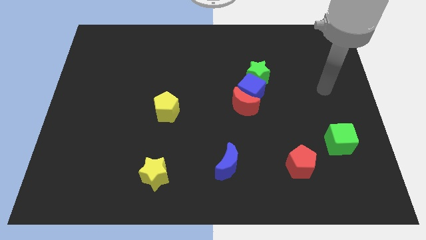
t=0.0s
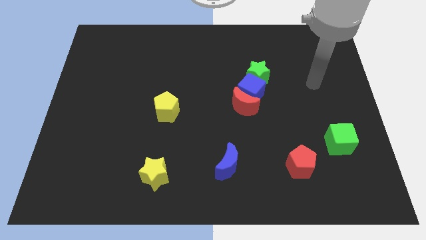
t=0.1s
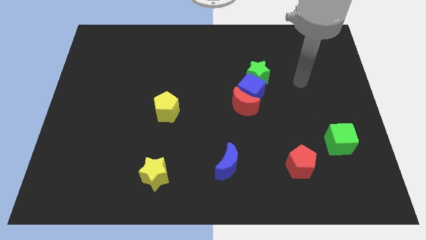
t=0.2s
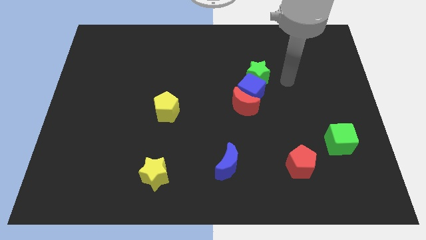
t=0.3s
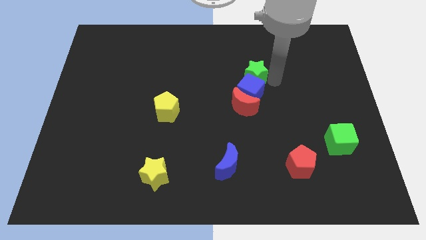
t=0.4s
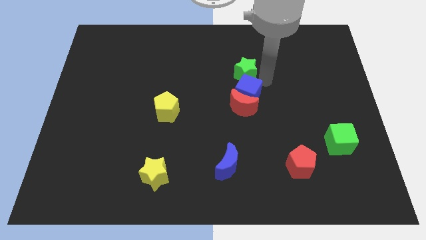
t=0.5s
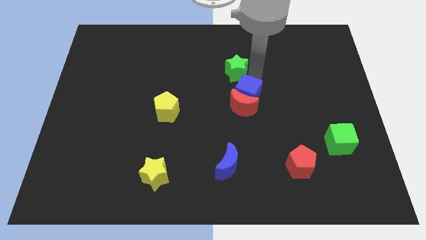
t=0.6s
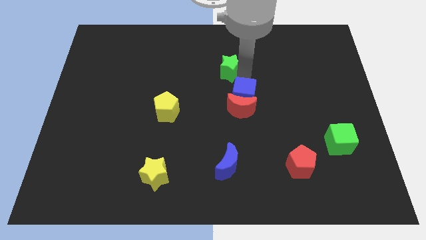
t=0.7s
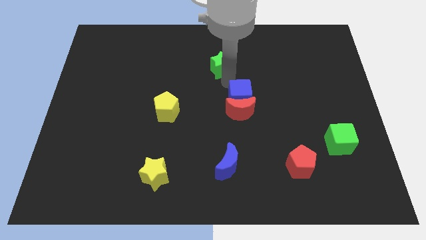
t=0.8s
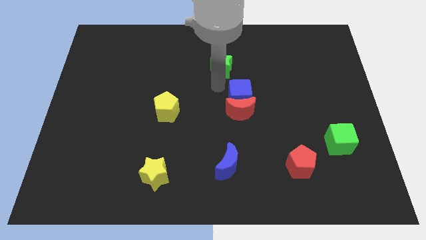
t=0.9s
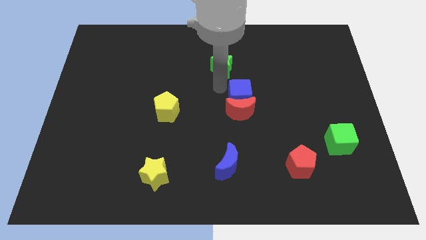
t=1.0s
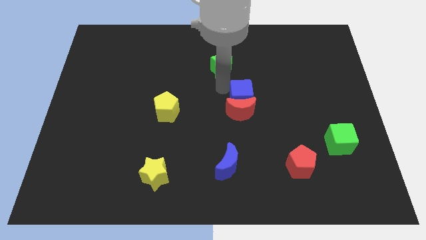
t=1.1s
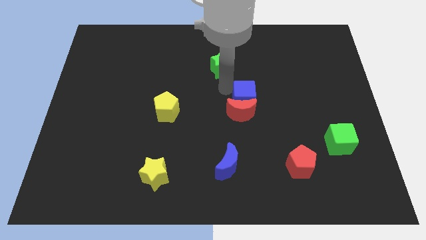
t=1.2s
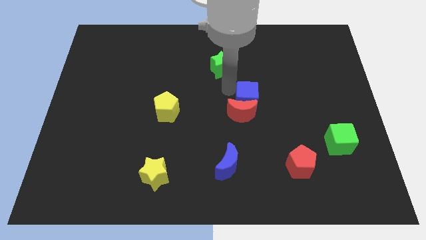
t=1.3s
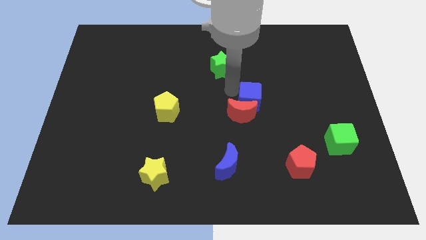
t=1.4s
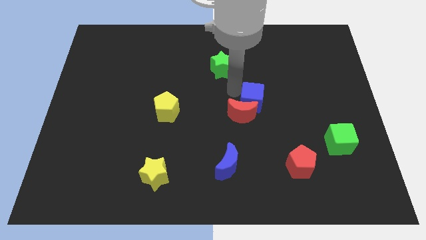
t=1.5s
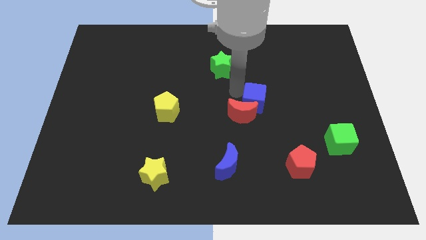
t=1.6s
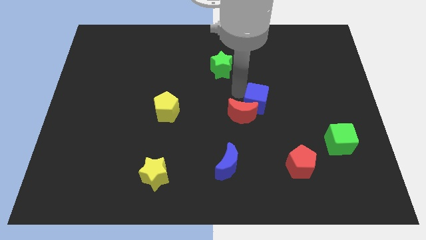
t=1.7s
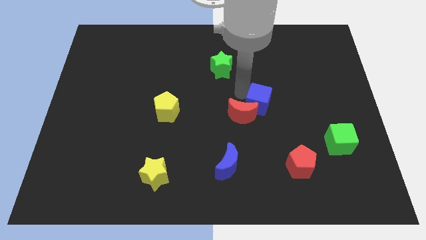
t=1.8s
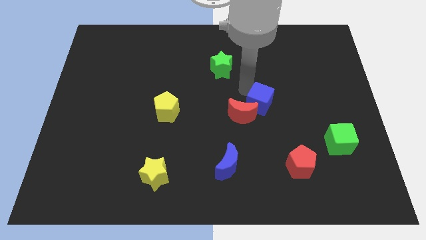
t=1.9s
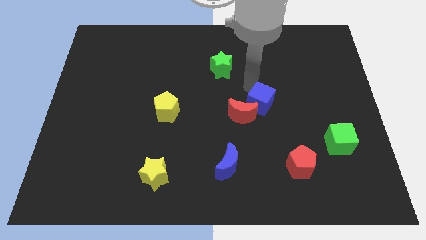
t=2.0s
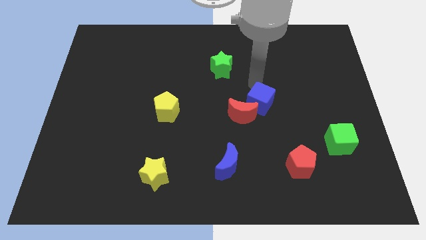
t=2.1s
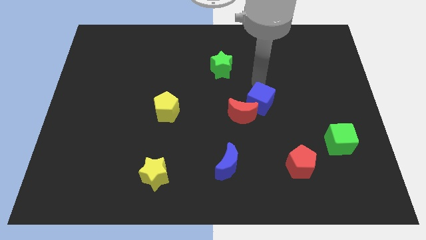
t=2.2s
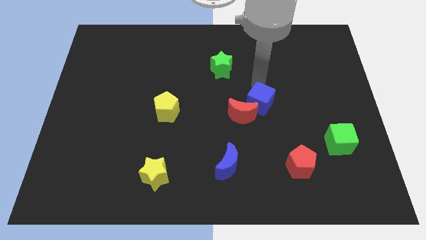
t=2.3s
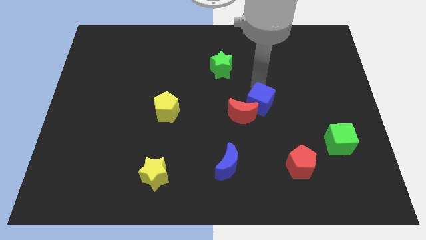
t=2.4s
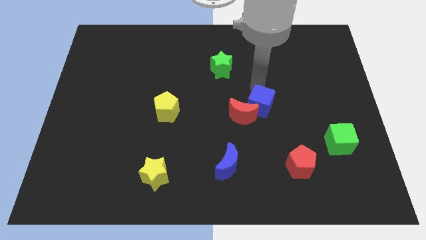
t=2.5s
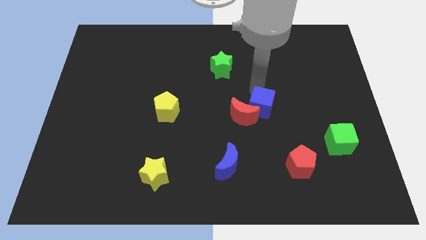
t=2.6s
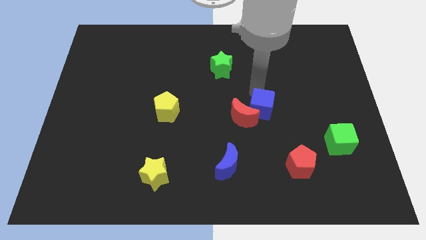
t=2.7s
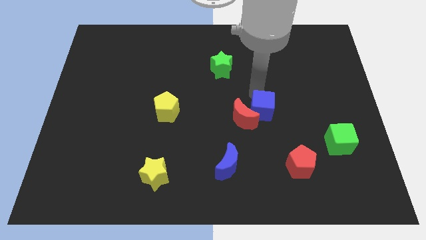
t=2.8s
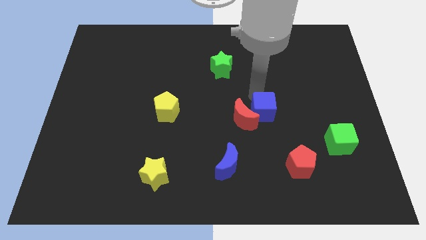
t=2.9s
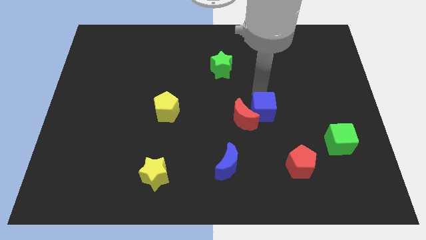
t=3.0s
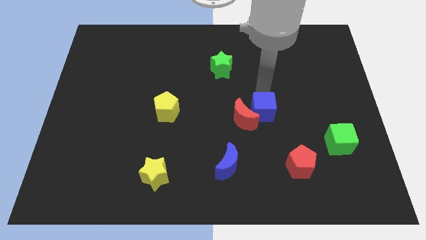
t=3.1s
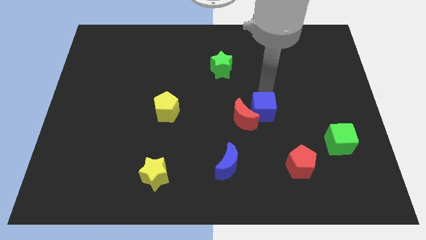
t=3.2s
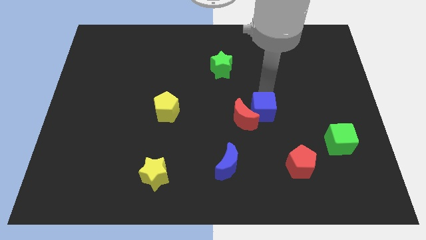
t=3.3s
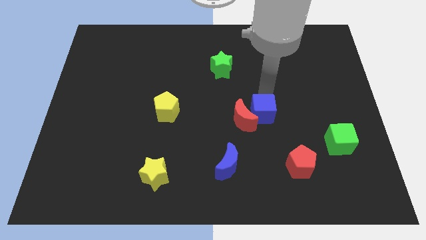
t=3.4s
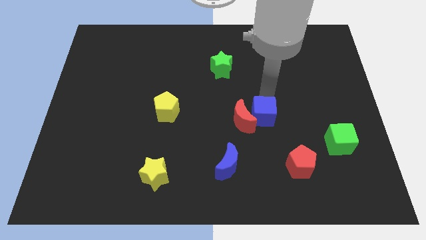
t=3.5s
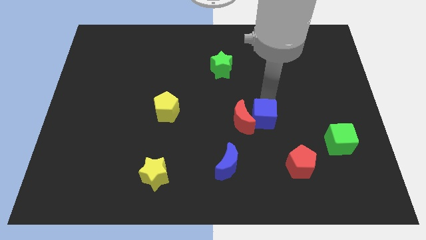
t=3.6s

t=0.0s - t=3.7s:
move the blue cube somewhat down

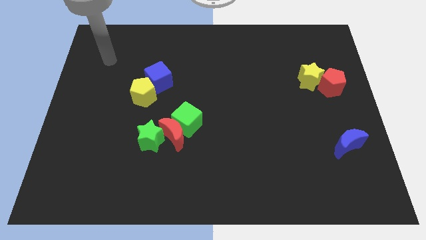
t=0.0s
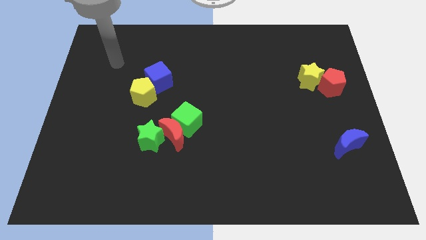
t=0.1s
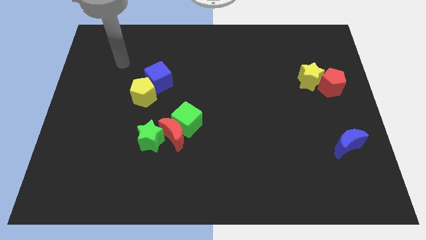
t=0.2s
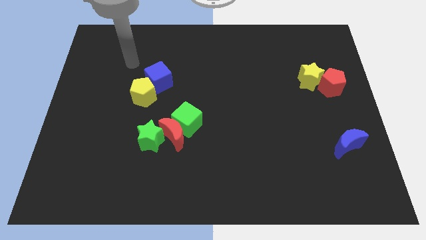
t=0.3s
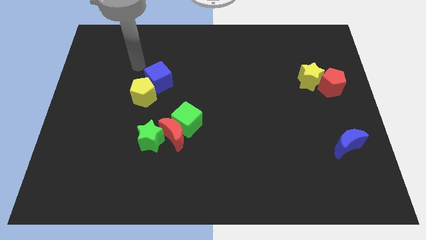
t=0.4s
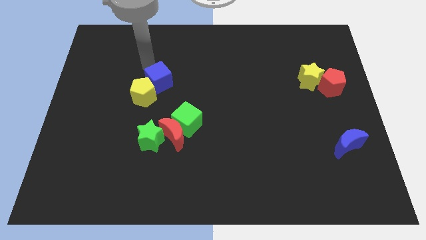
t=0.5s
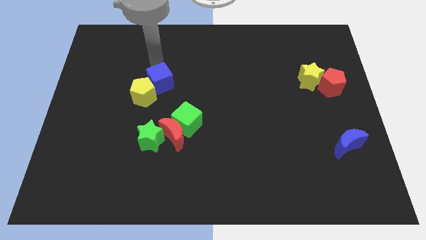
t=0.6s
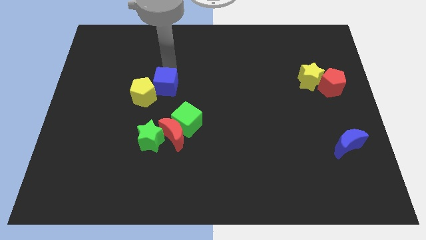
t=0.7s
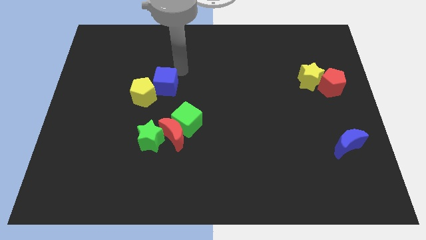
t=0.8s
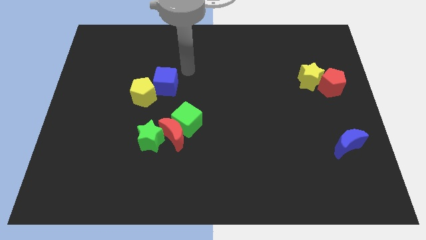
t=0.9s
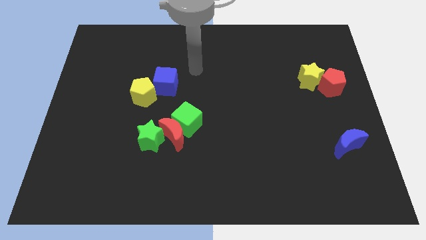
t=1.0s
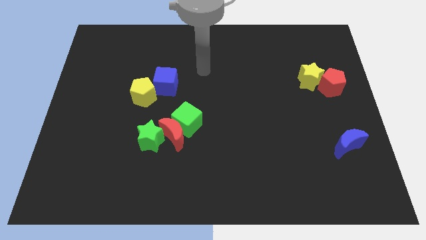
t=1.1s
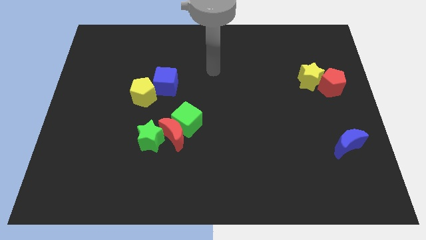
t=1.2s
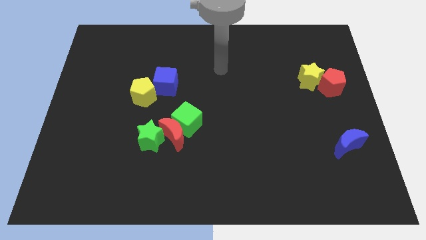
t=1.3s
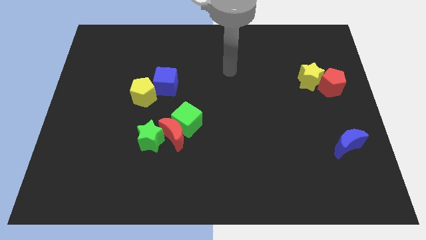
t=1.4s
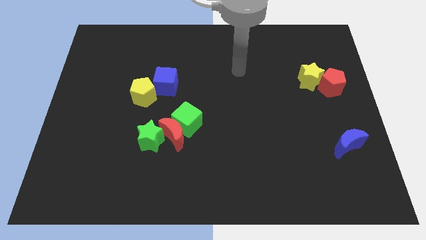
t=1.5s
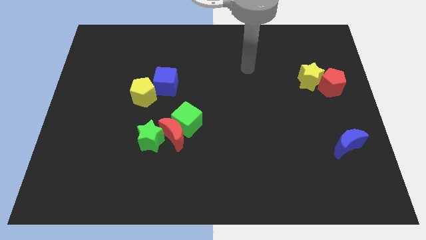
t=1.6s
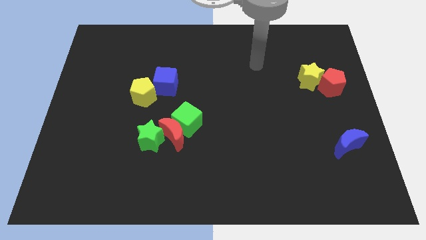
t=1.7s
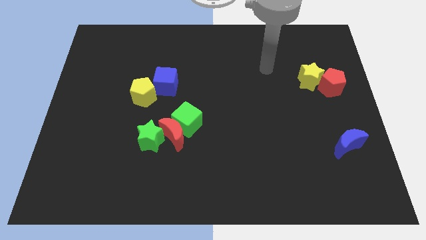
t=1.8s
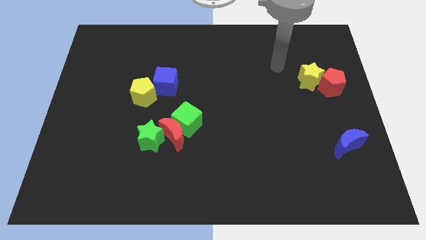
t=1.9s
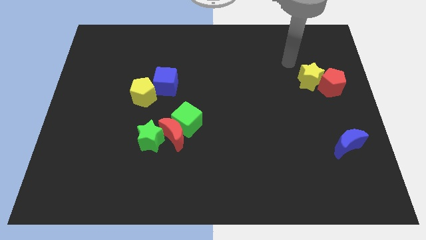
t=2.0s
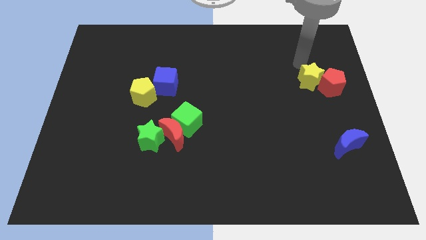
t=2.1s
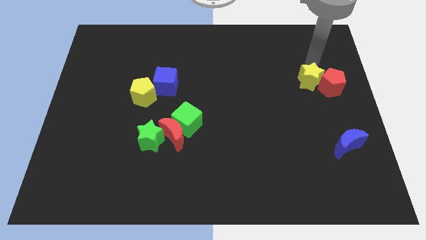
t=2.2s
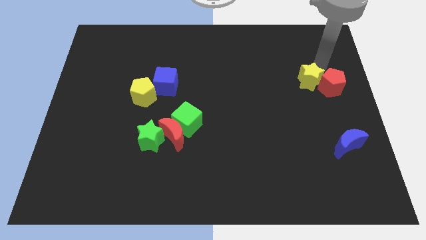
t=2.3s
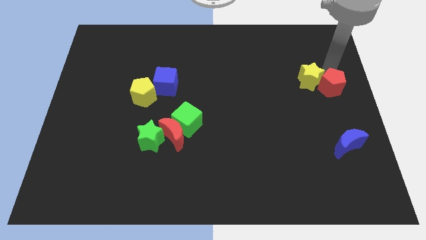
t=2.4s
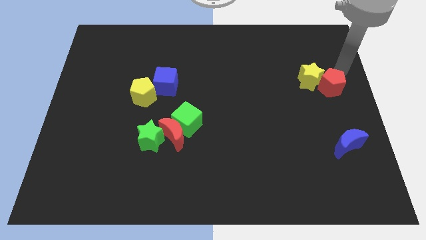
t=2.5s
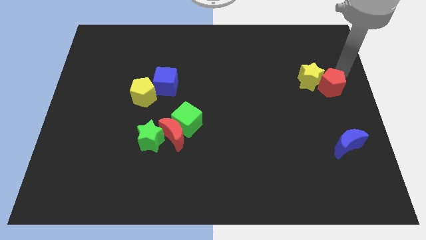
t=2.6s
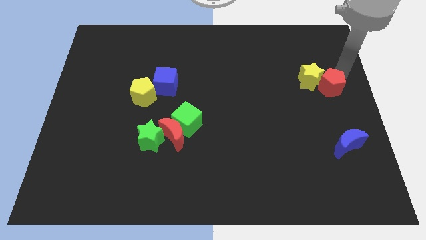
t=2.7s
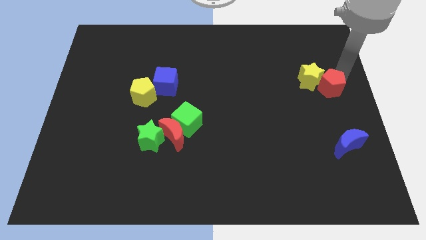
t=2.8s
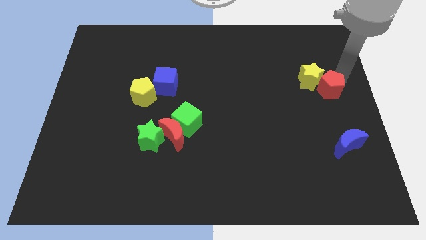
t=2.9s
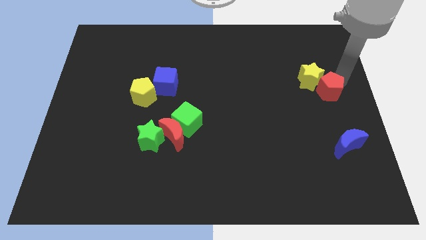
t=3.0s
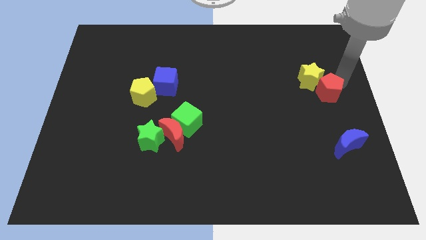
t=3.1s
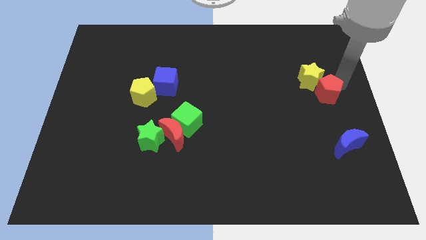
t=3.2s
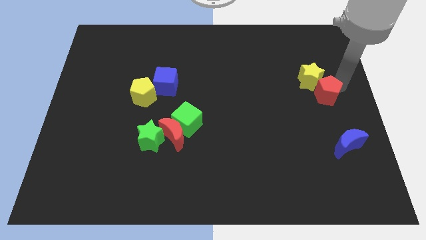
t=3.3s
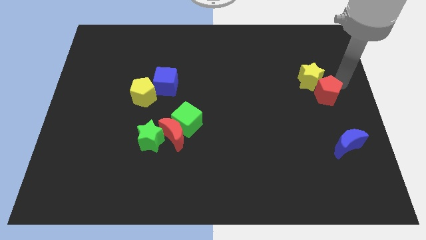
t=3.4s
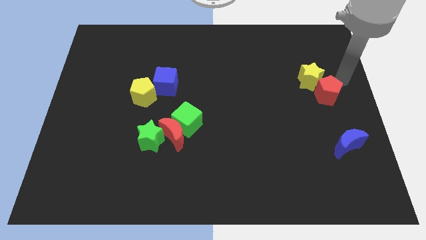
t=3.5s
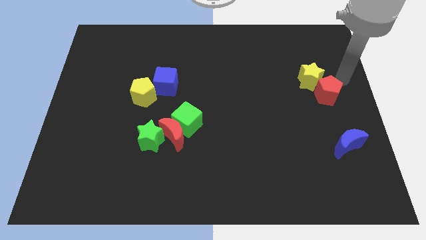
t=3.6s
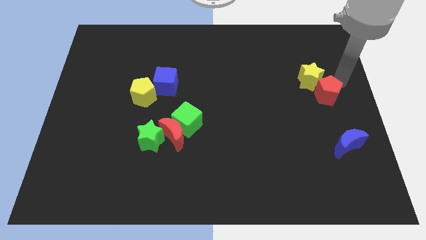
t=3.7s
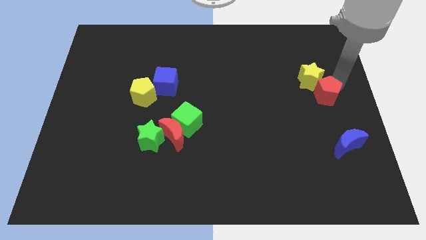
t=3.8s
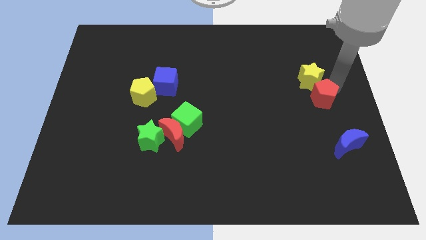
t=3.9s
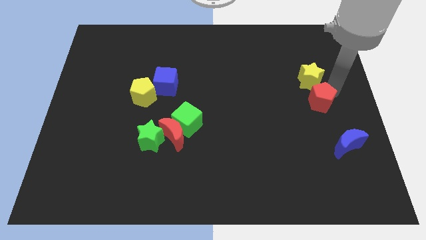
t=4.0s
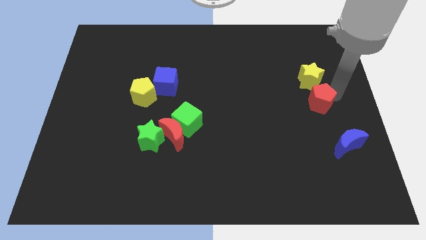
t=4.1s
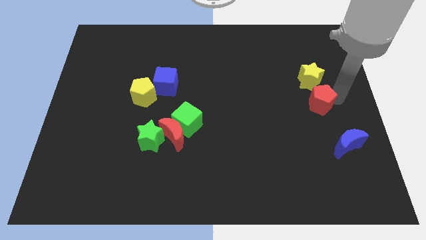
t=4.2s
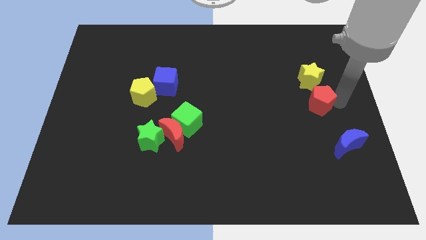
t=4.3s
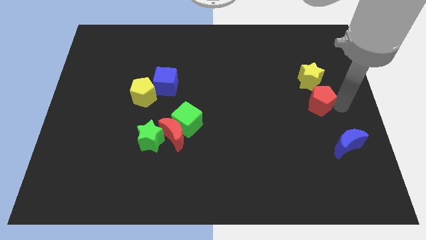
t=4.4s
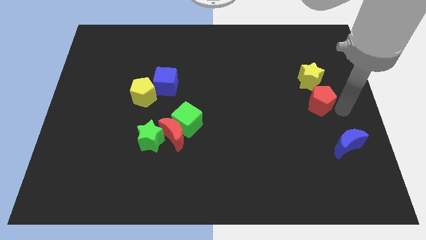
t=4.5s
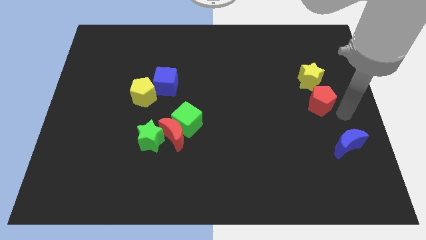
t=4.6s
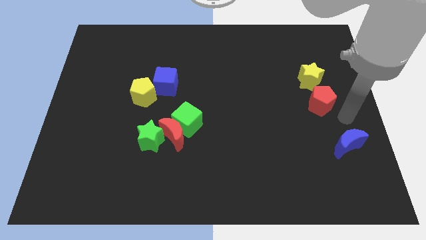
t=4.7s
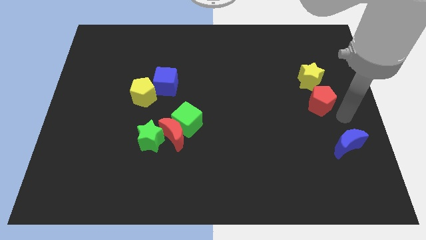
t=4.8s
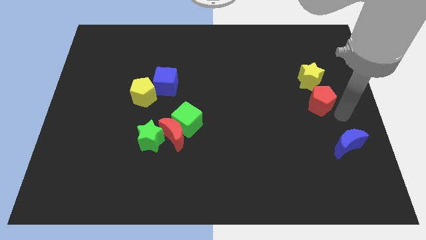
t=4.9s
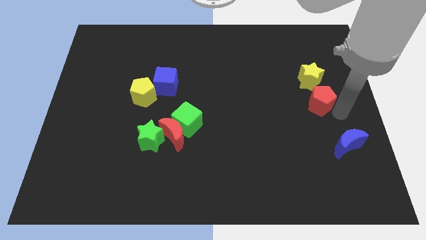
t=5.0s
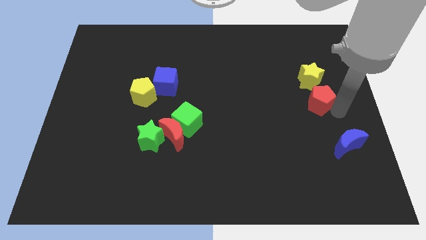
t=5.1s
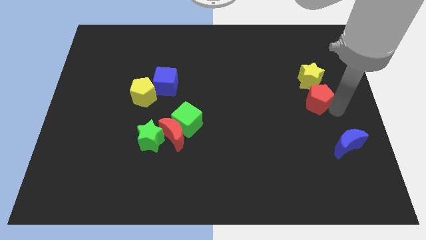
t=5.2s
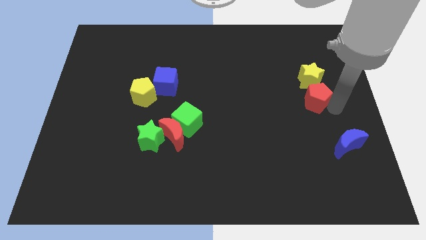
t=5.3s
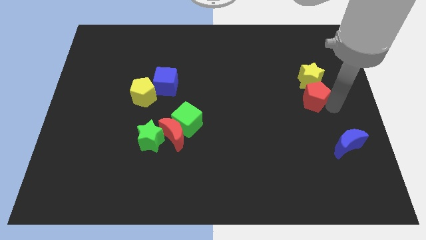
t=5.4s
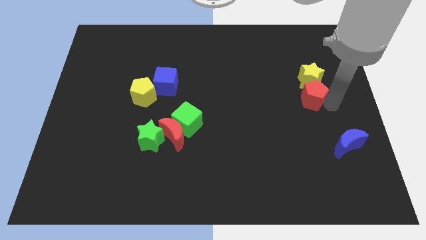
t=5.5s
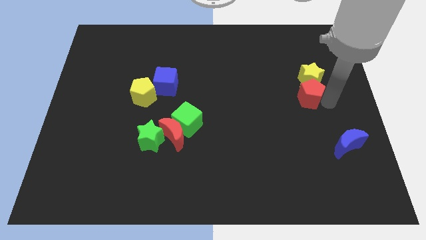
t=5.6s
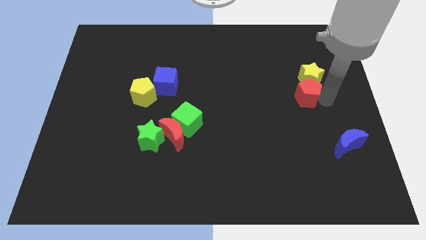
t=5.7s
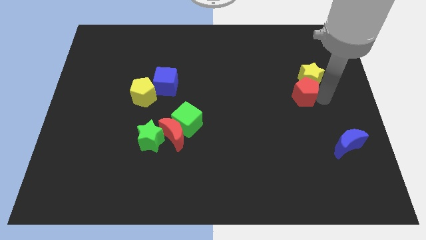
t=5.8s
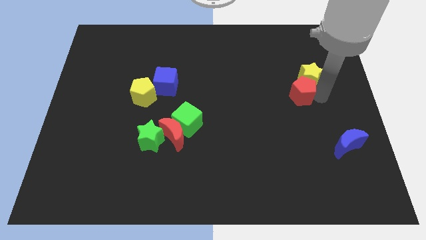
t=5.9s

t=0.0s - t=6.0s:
move the red pentagon a little bit left
